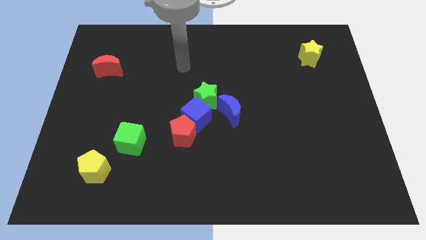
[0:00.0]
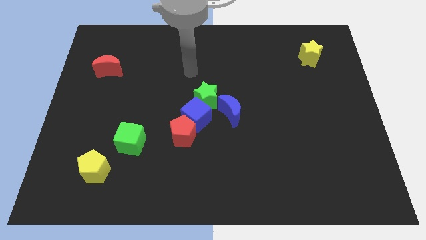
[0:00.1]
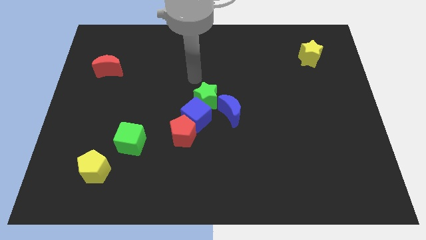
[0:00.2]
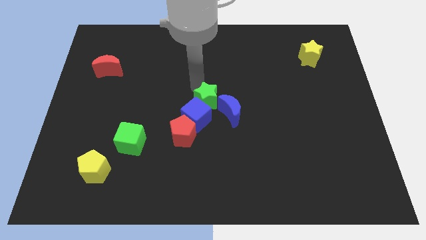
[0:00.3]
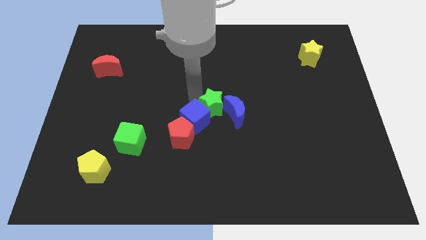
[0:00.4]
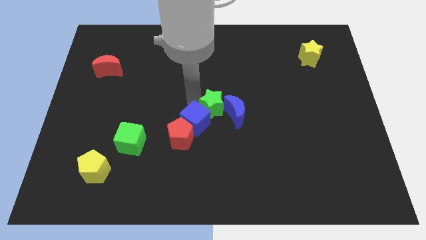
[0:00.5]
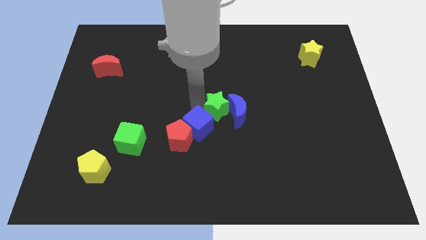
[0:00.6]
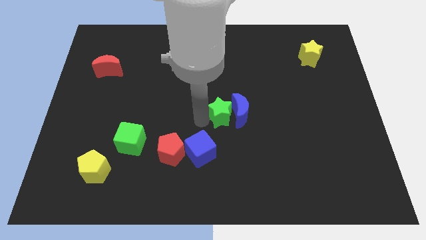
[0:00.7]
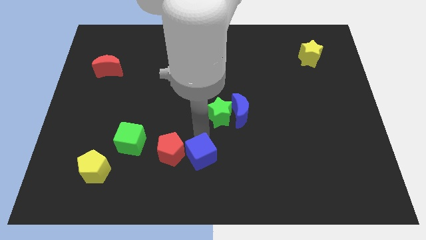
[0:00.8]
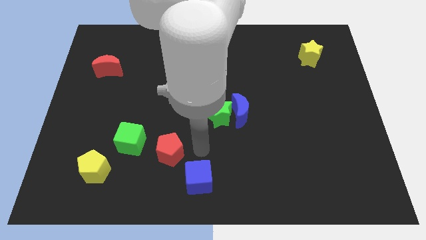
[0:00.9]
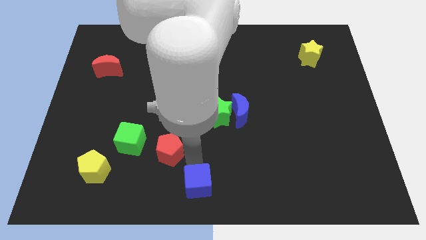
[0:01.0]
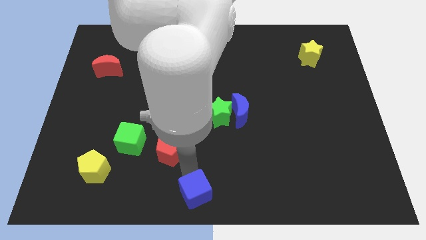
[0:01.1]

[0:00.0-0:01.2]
separate the red pentagon from the blue cube

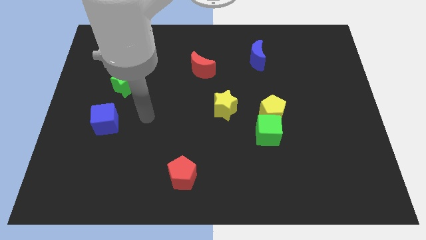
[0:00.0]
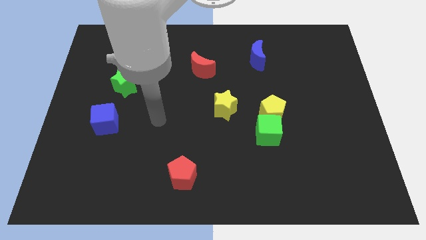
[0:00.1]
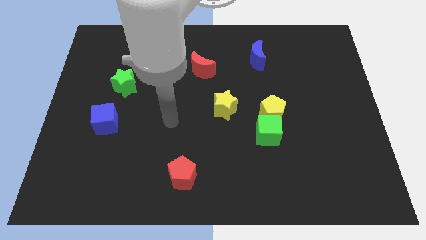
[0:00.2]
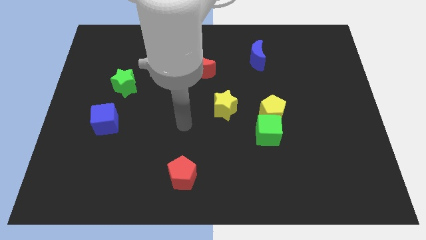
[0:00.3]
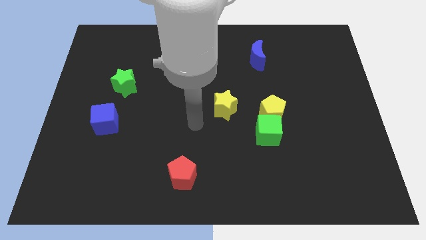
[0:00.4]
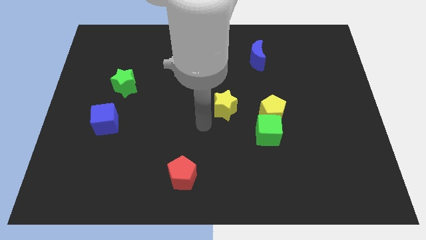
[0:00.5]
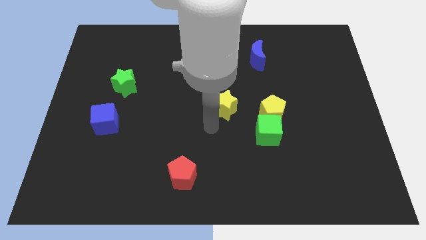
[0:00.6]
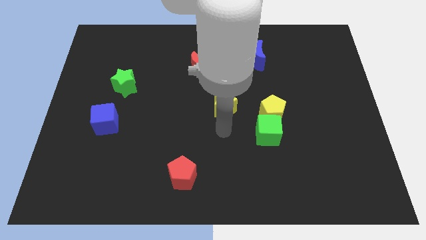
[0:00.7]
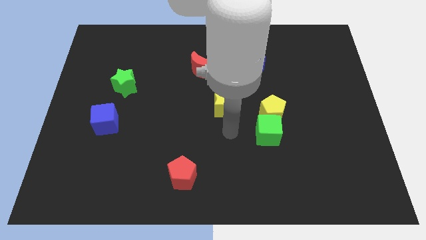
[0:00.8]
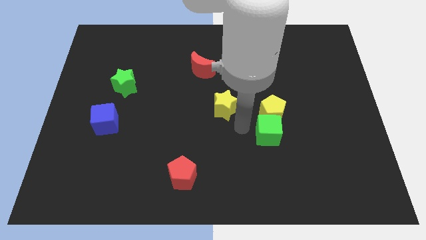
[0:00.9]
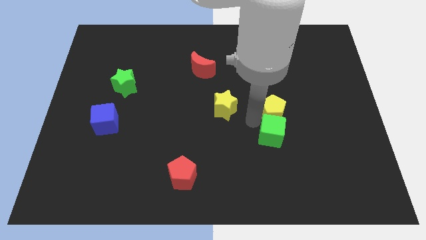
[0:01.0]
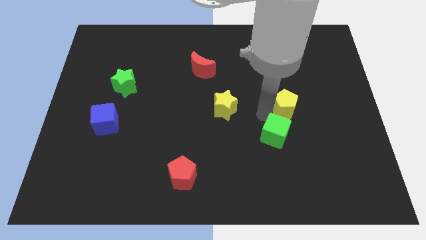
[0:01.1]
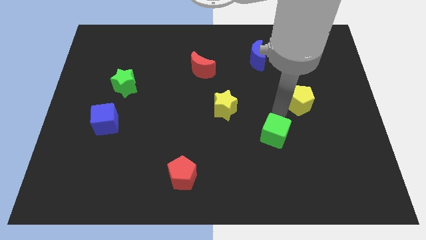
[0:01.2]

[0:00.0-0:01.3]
separate the green cube from the yellow pentagon

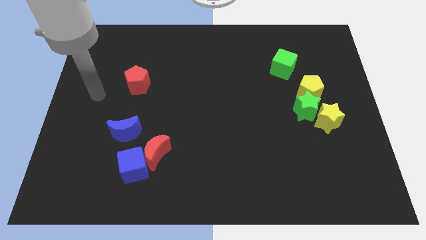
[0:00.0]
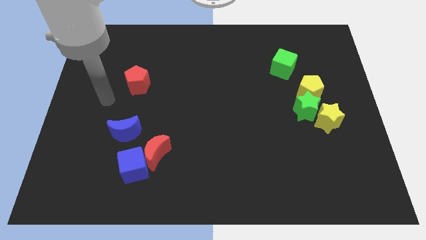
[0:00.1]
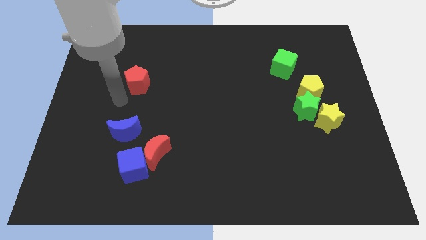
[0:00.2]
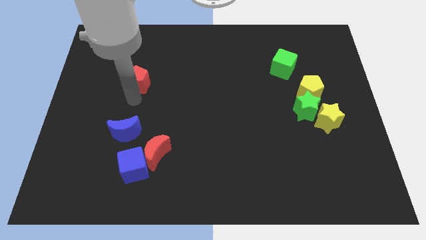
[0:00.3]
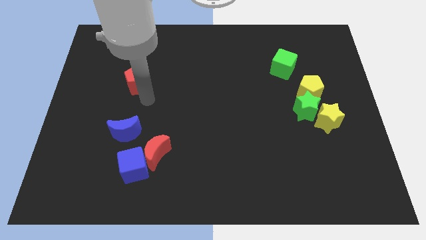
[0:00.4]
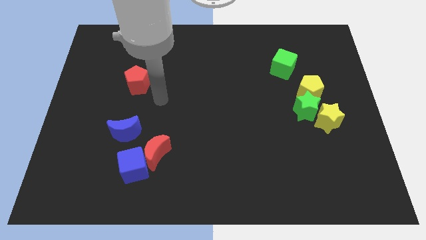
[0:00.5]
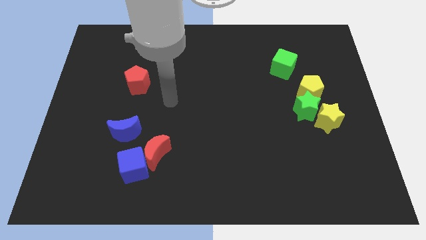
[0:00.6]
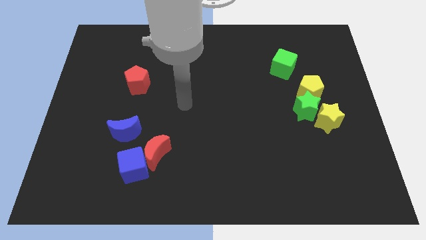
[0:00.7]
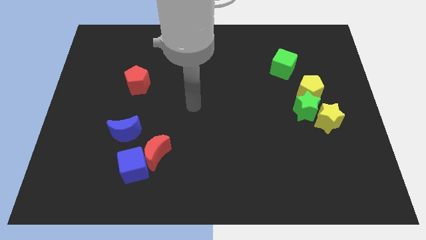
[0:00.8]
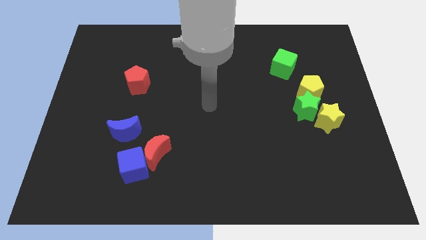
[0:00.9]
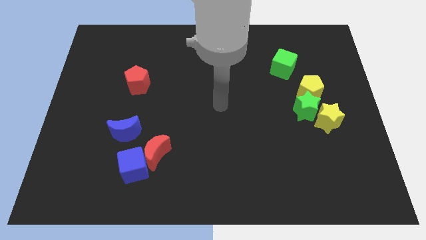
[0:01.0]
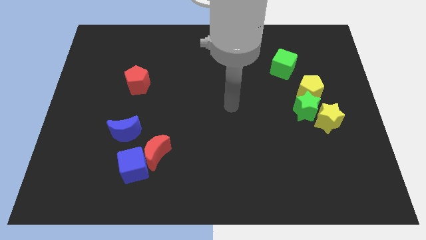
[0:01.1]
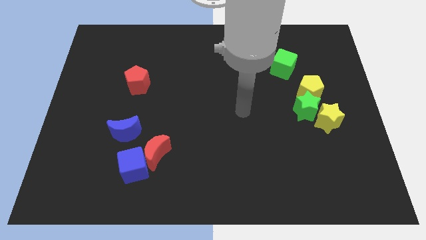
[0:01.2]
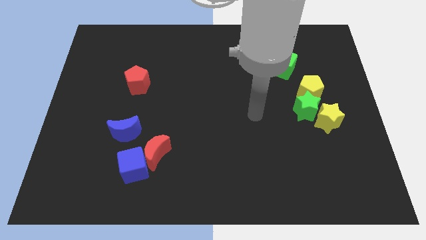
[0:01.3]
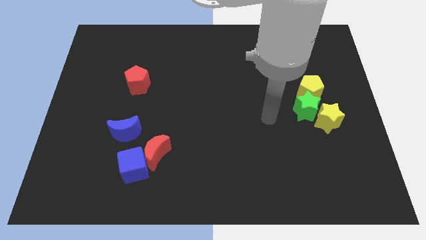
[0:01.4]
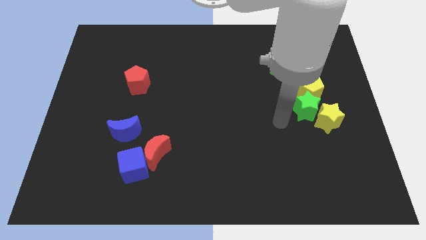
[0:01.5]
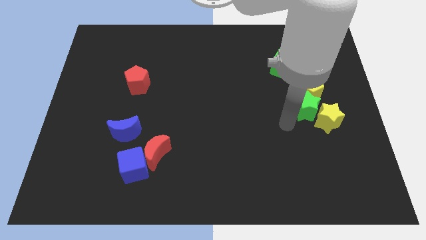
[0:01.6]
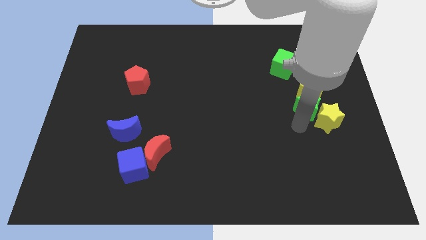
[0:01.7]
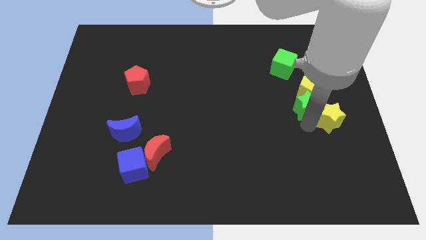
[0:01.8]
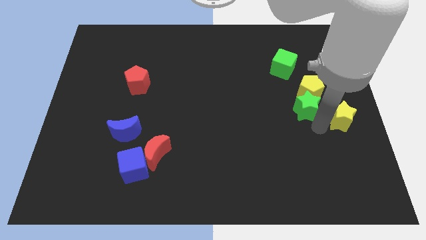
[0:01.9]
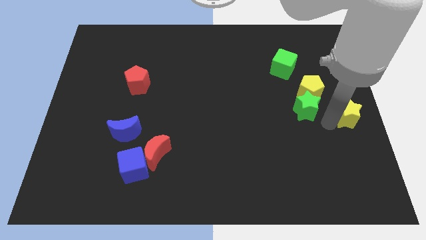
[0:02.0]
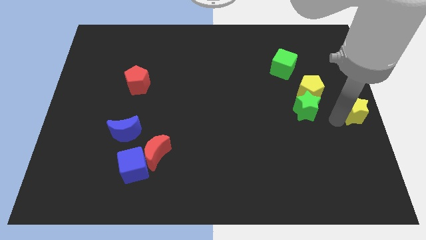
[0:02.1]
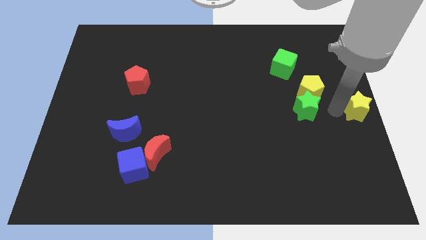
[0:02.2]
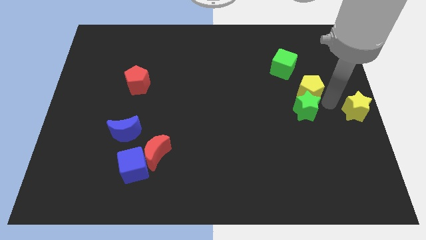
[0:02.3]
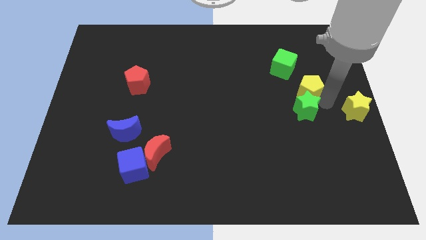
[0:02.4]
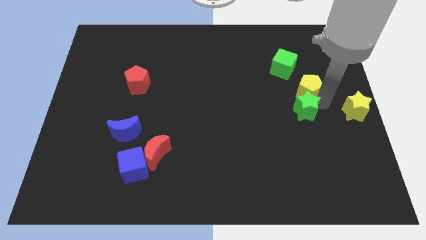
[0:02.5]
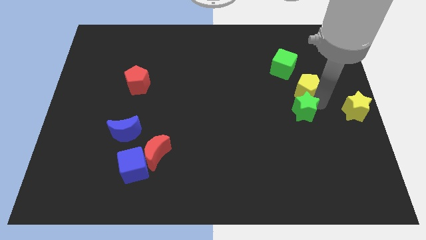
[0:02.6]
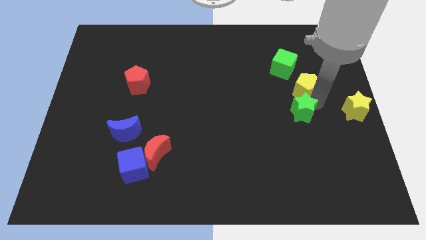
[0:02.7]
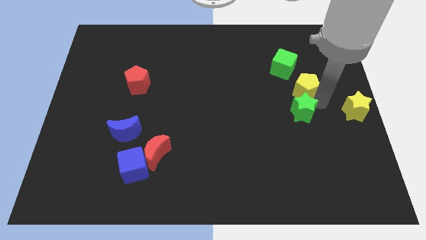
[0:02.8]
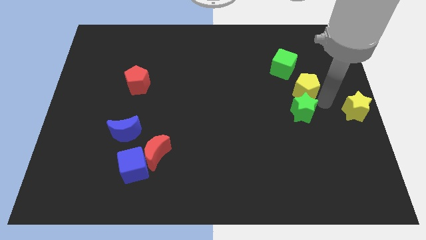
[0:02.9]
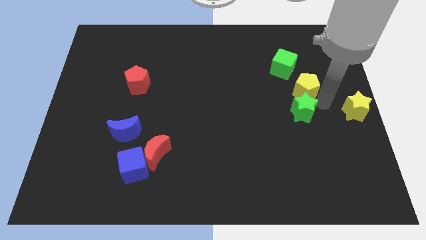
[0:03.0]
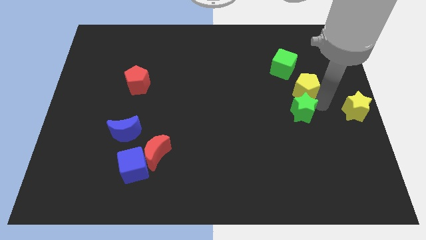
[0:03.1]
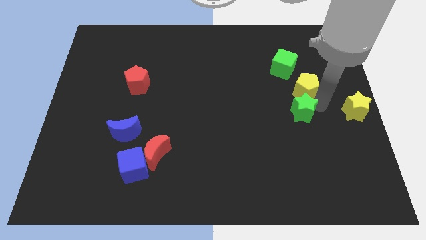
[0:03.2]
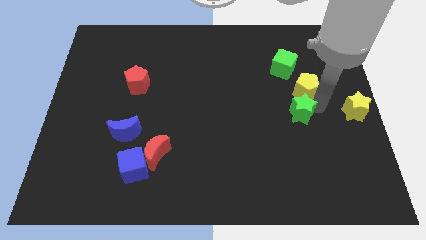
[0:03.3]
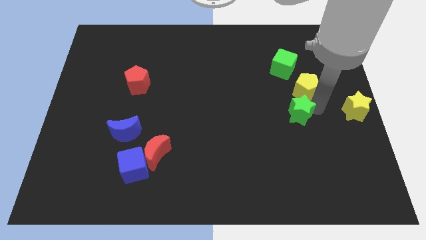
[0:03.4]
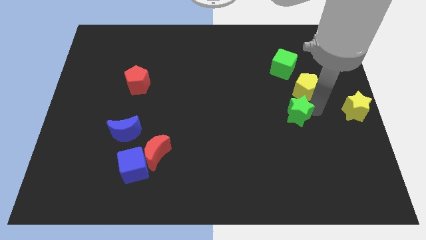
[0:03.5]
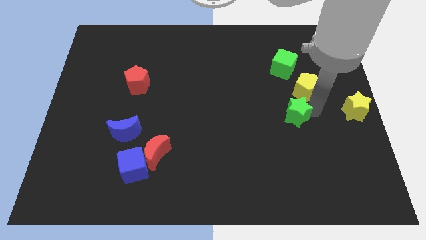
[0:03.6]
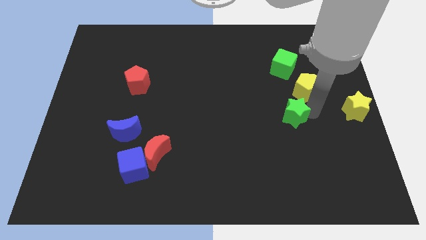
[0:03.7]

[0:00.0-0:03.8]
pull the green star apart from the yellow star and yellow pentagon

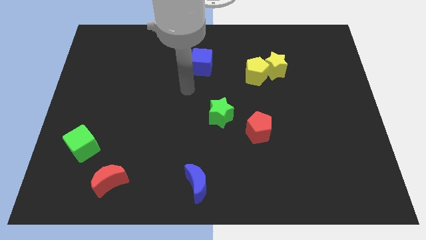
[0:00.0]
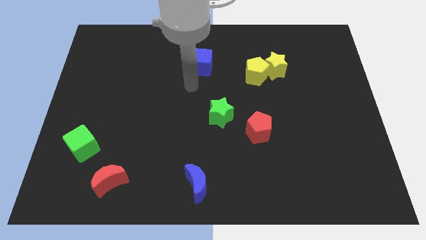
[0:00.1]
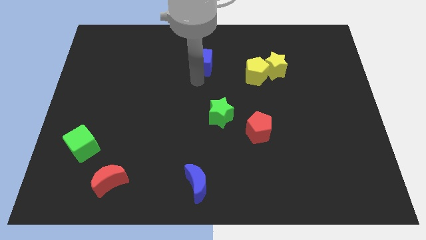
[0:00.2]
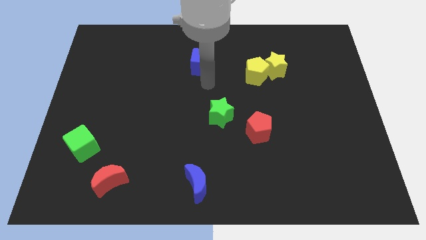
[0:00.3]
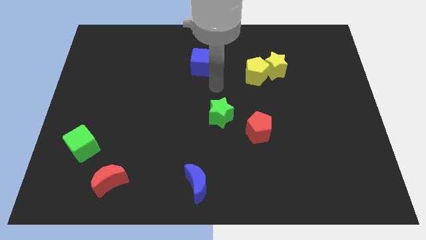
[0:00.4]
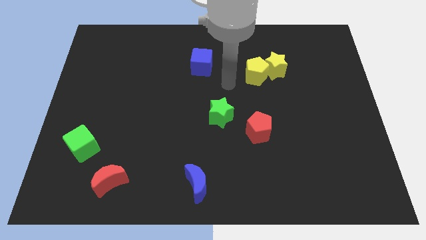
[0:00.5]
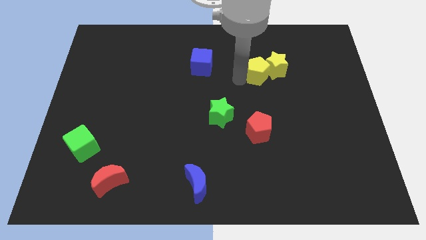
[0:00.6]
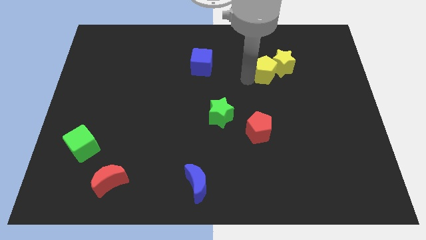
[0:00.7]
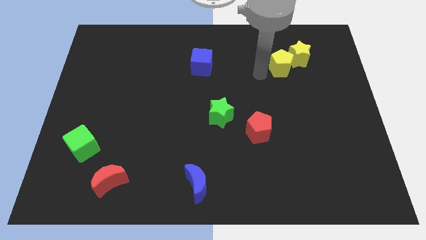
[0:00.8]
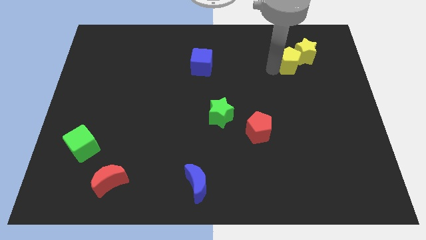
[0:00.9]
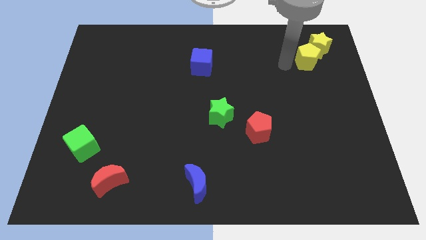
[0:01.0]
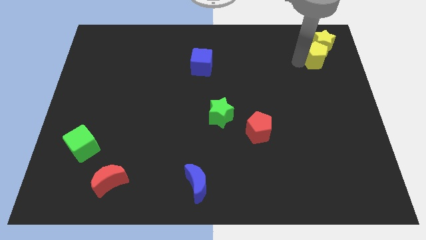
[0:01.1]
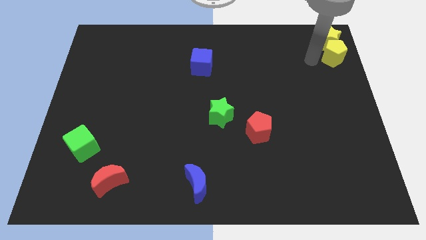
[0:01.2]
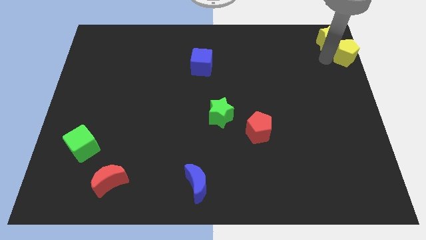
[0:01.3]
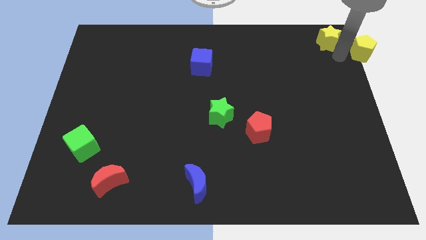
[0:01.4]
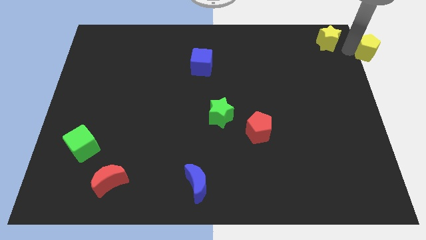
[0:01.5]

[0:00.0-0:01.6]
separate the yellow star from the yellow pentagon

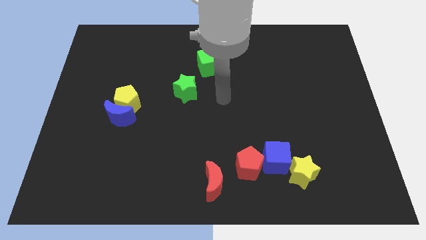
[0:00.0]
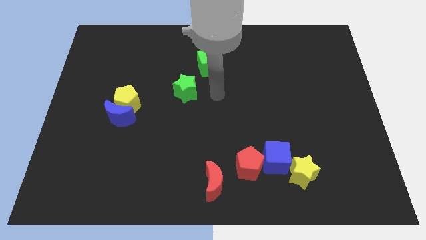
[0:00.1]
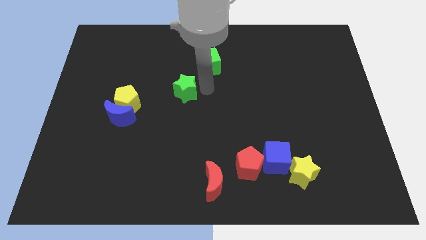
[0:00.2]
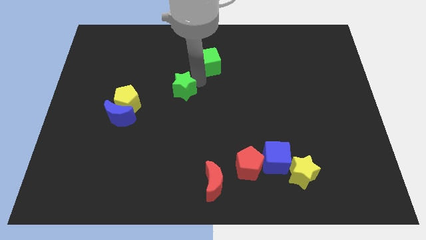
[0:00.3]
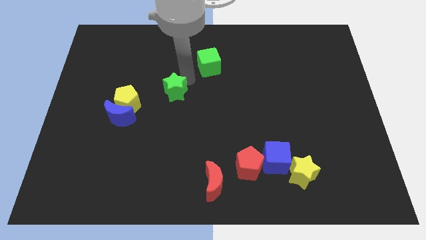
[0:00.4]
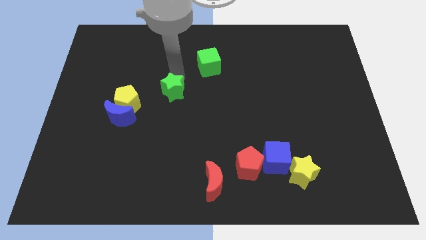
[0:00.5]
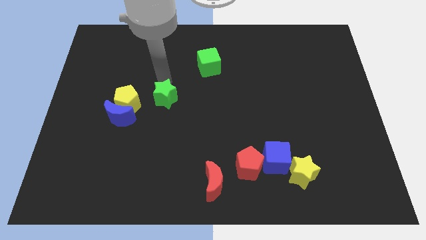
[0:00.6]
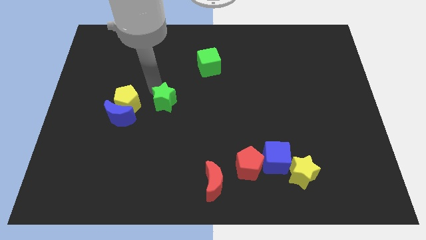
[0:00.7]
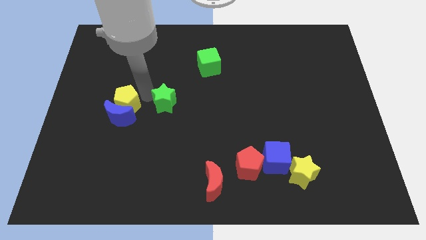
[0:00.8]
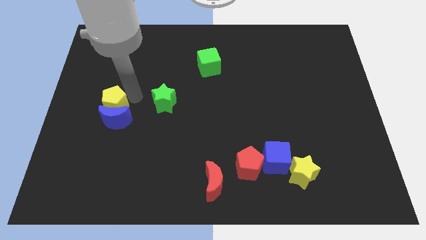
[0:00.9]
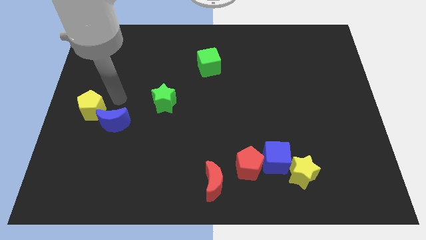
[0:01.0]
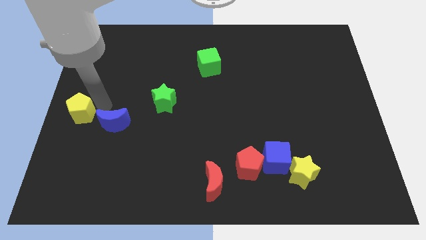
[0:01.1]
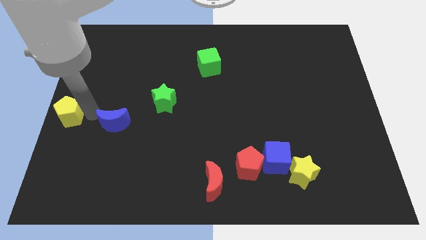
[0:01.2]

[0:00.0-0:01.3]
separate the blue moon from the yellow pentagon

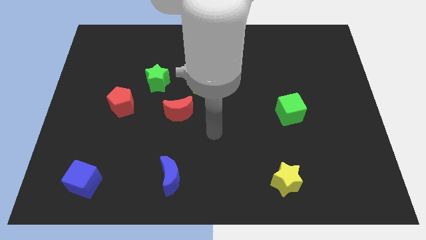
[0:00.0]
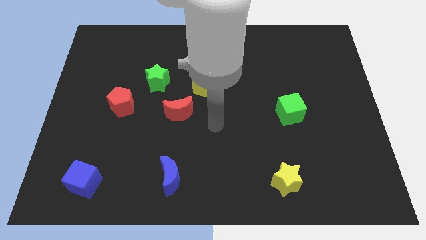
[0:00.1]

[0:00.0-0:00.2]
separate the red moon from the yellow pentagon
